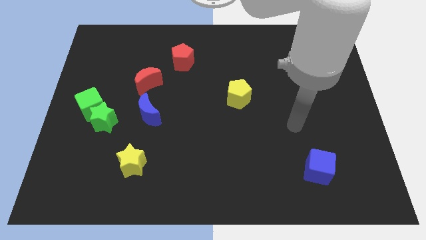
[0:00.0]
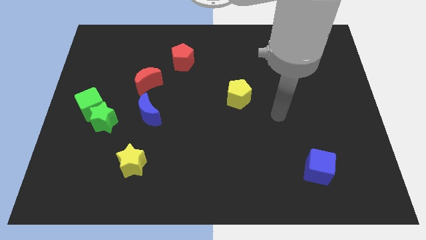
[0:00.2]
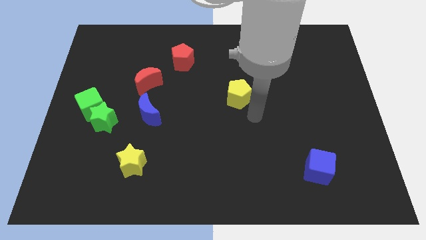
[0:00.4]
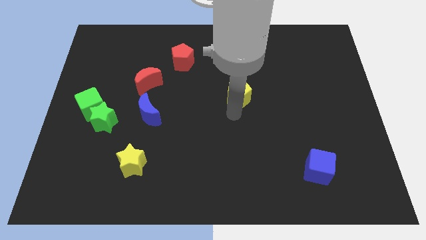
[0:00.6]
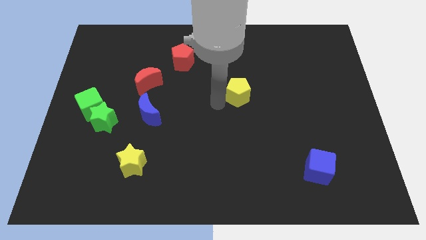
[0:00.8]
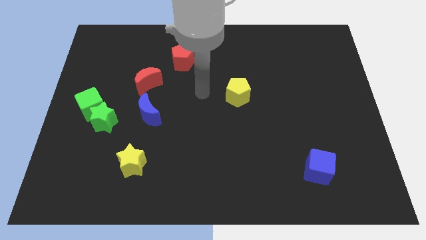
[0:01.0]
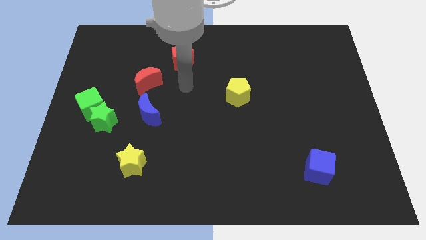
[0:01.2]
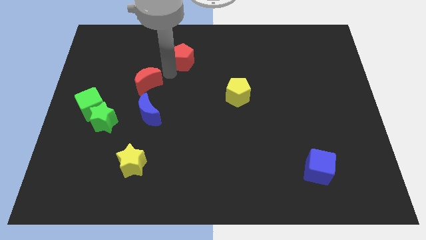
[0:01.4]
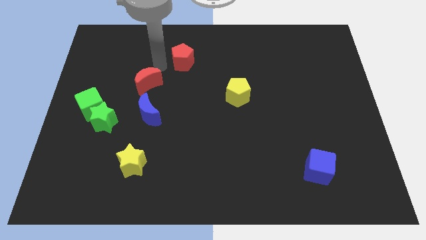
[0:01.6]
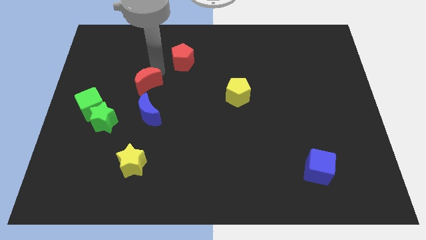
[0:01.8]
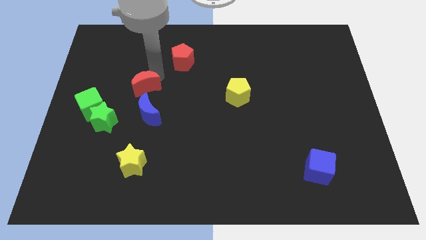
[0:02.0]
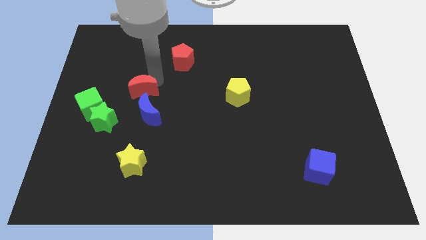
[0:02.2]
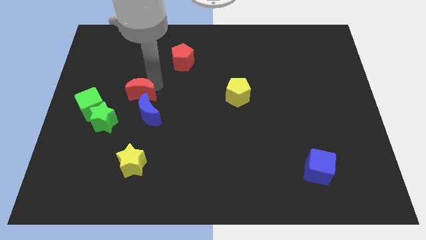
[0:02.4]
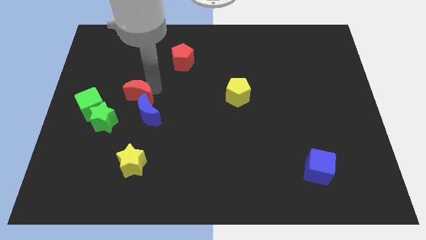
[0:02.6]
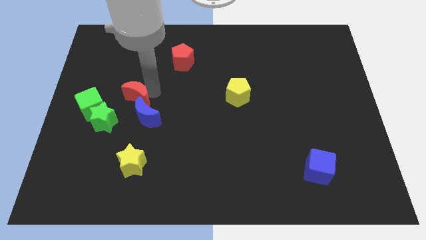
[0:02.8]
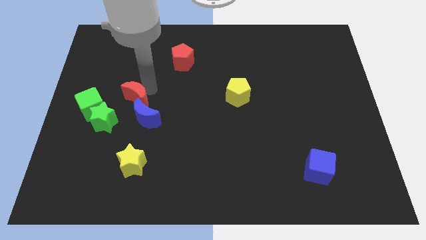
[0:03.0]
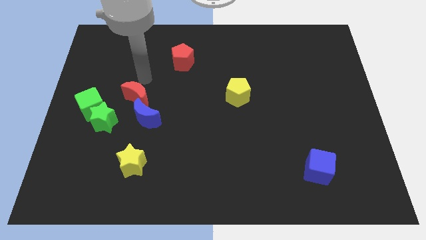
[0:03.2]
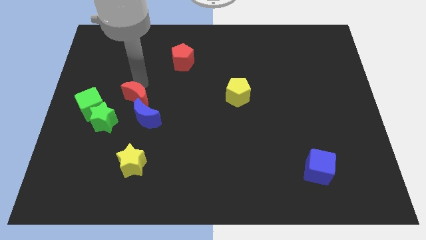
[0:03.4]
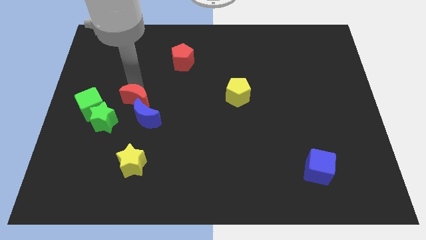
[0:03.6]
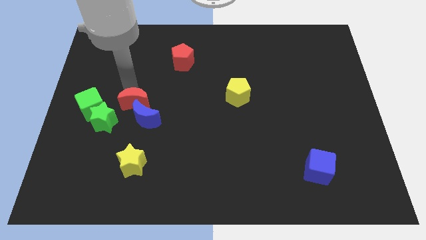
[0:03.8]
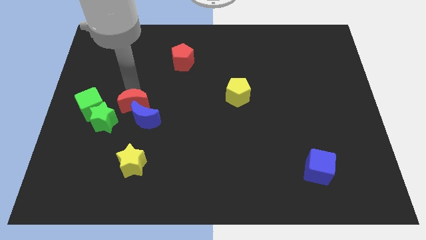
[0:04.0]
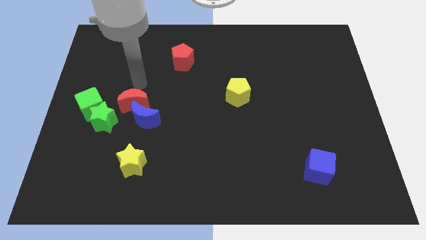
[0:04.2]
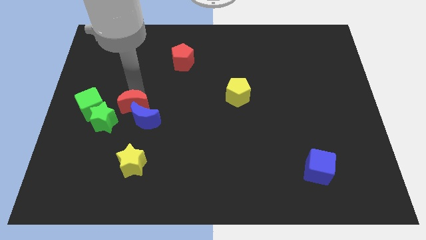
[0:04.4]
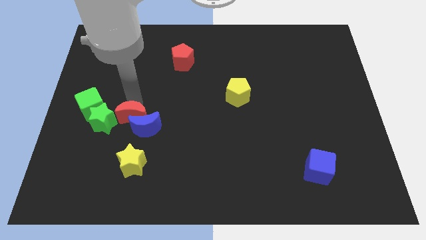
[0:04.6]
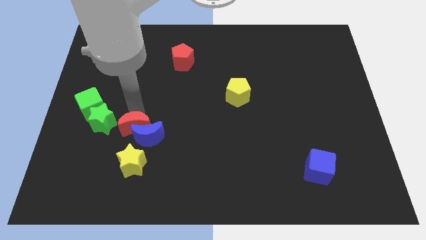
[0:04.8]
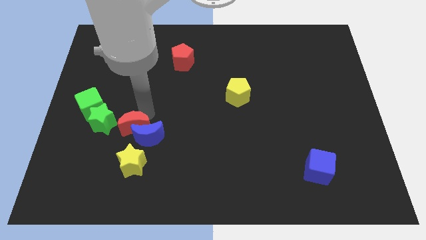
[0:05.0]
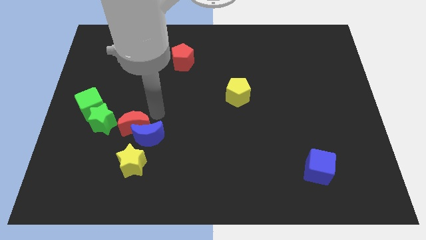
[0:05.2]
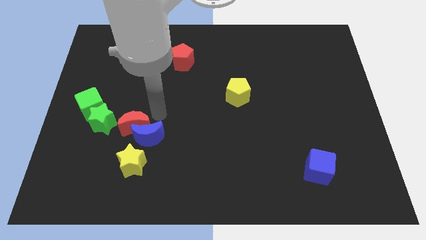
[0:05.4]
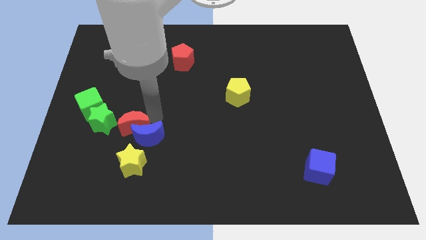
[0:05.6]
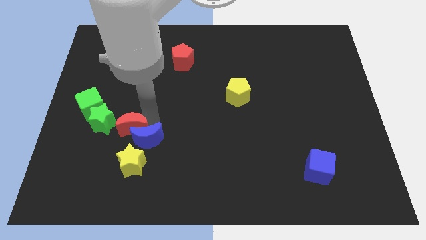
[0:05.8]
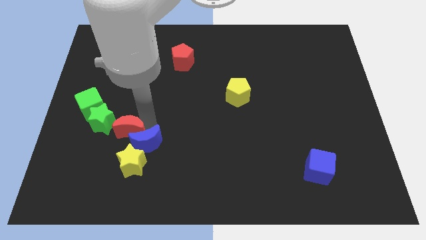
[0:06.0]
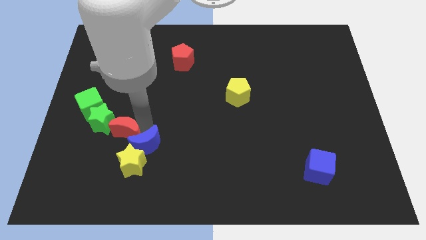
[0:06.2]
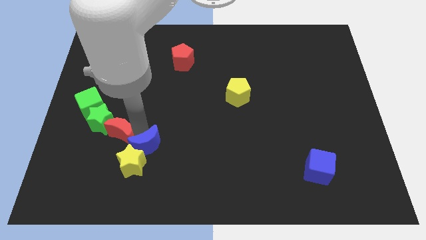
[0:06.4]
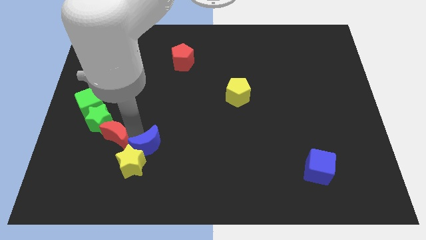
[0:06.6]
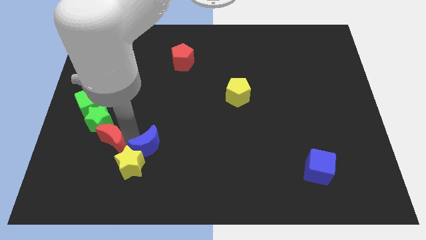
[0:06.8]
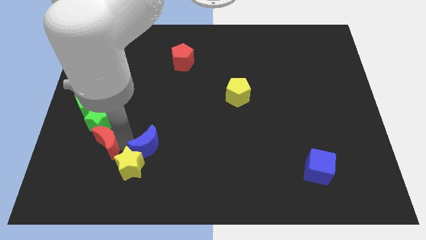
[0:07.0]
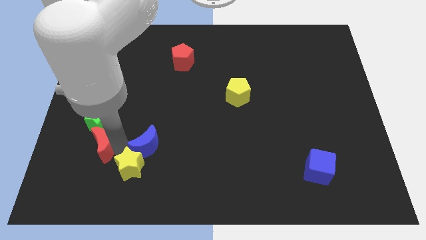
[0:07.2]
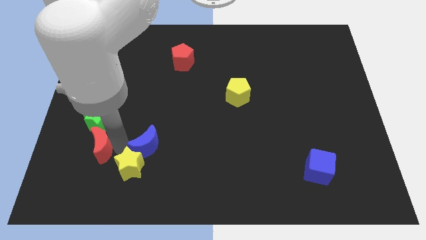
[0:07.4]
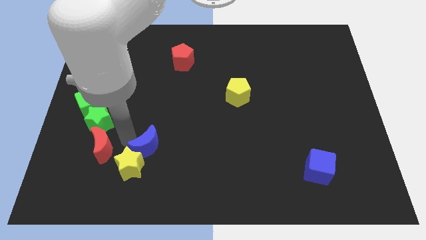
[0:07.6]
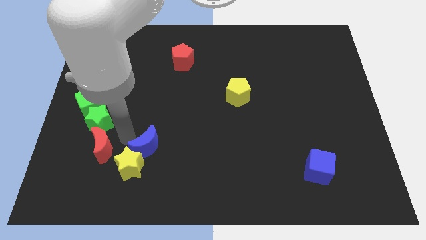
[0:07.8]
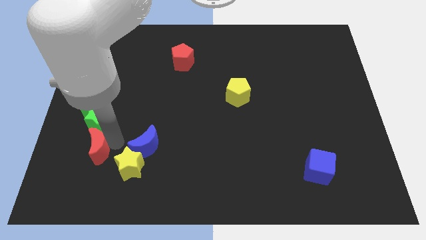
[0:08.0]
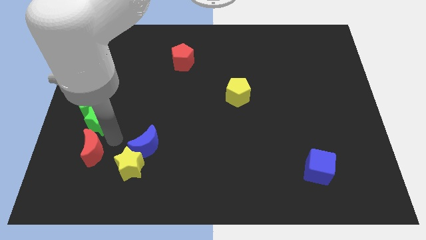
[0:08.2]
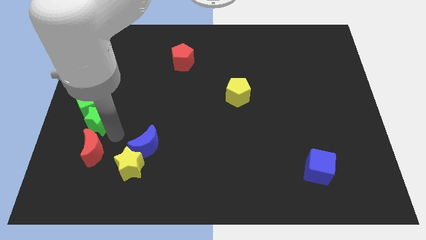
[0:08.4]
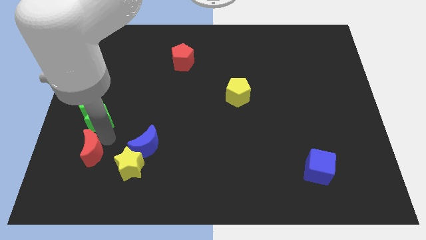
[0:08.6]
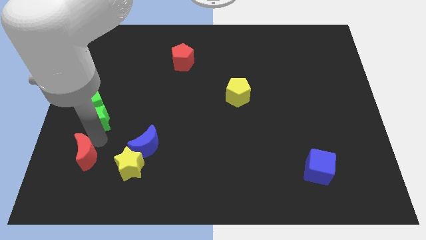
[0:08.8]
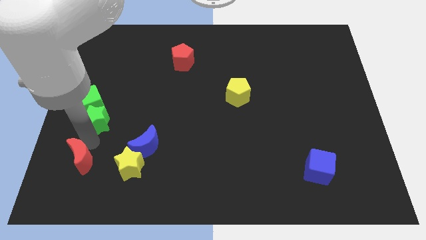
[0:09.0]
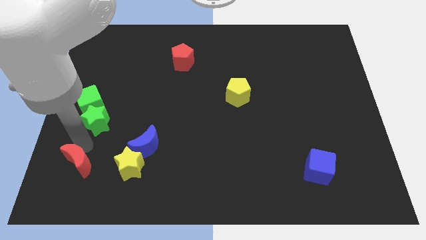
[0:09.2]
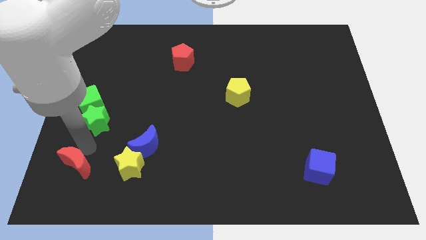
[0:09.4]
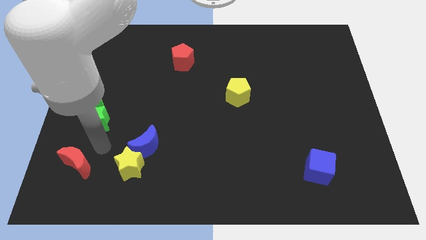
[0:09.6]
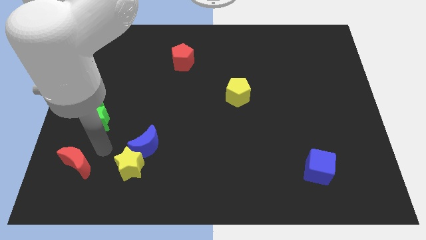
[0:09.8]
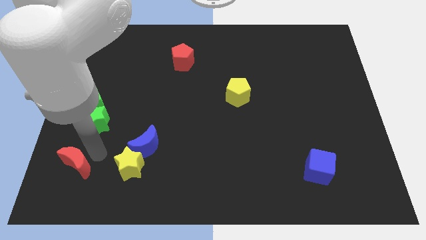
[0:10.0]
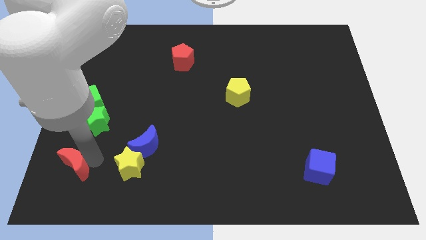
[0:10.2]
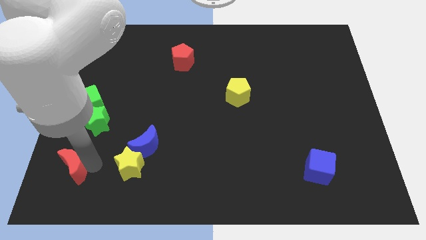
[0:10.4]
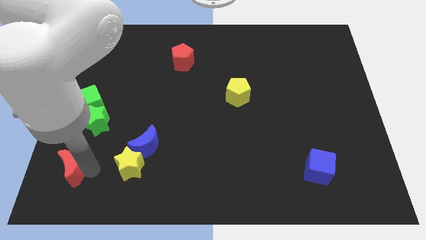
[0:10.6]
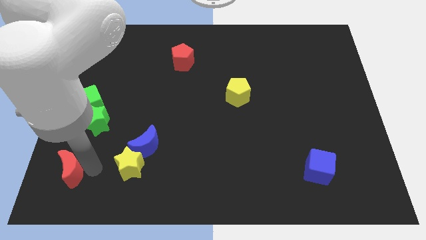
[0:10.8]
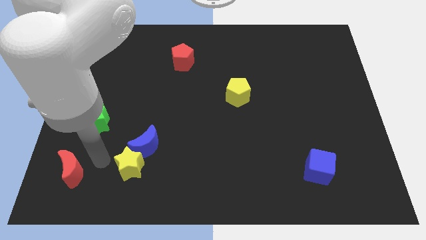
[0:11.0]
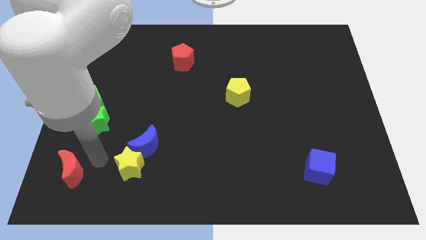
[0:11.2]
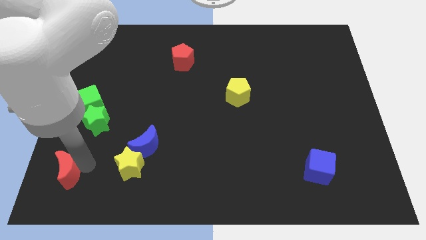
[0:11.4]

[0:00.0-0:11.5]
push the red moon to the bottom left of the board
